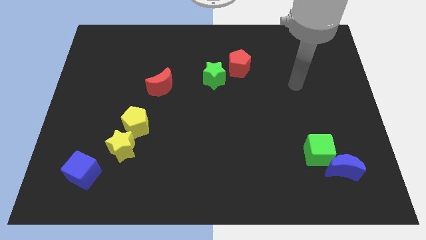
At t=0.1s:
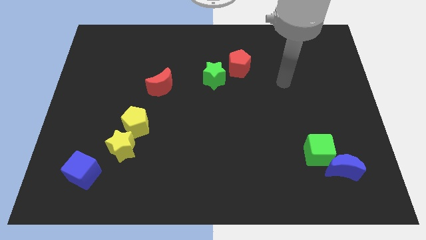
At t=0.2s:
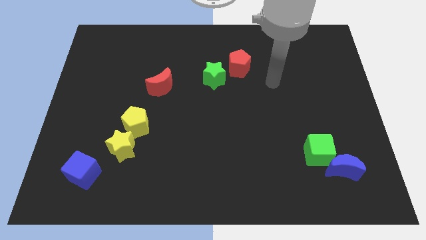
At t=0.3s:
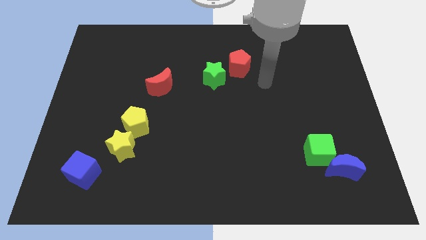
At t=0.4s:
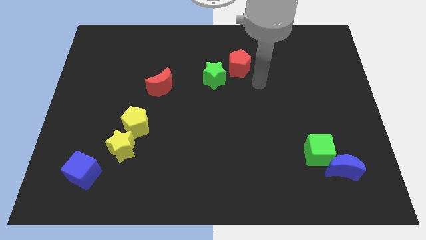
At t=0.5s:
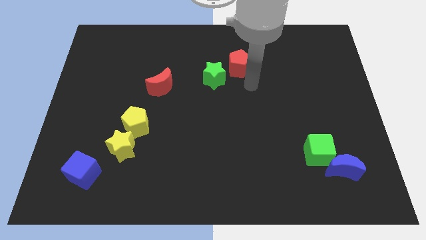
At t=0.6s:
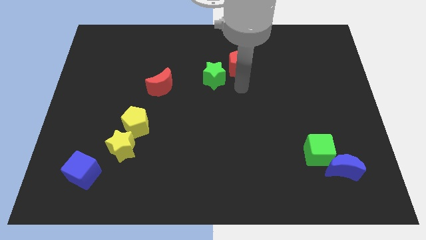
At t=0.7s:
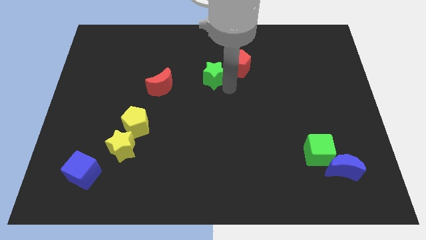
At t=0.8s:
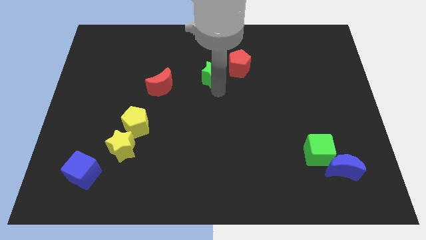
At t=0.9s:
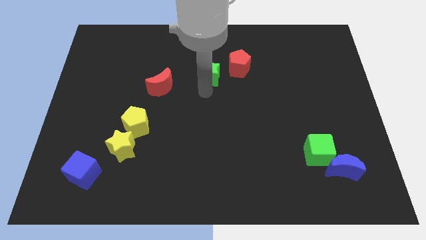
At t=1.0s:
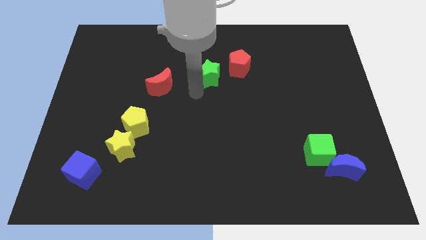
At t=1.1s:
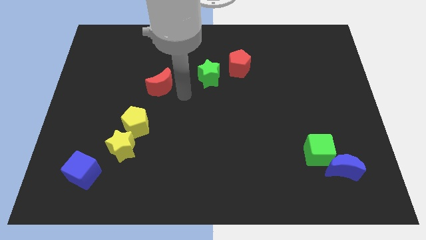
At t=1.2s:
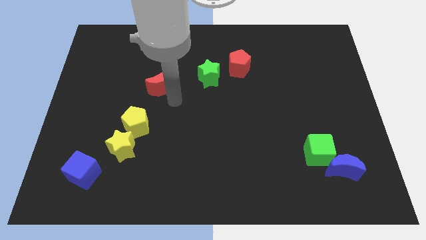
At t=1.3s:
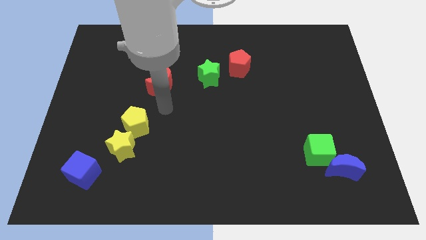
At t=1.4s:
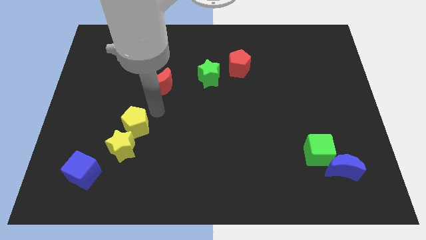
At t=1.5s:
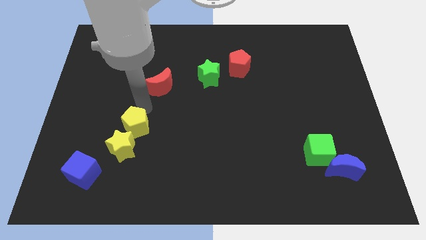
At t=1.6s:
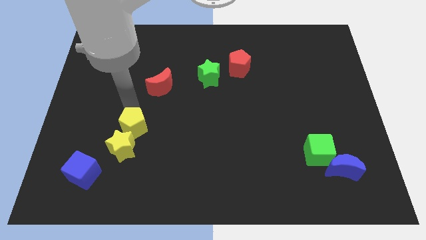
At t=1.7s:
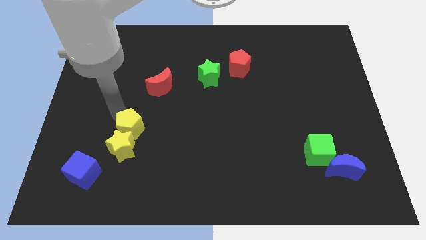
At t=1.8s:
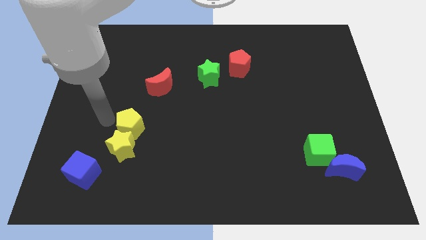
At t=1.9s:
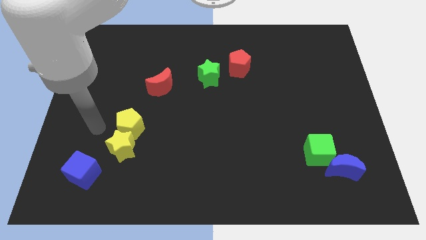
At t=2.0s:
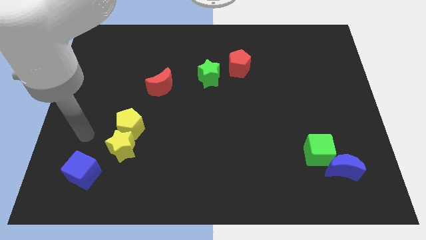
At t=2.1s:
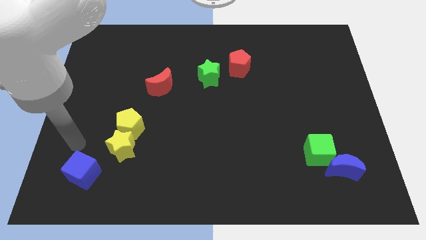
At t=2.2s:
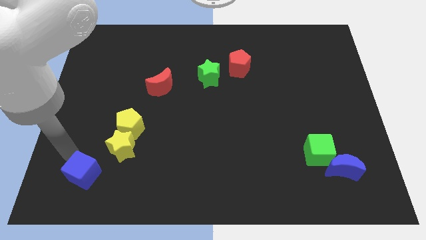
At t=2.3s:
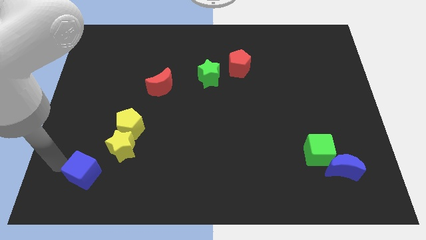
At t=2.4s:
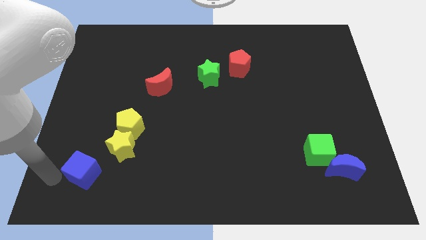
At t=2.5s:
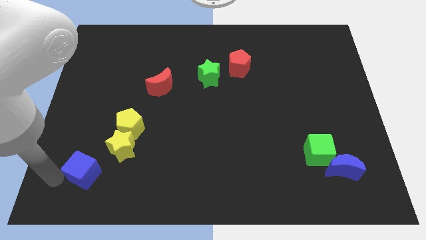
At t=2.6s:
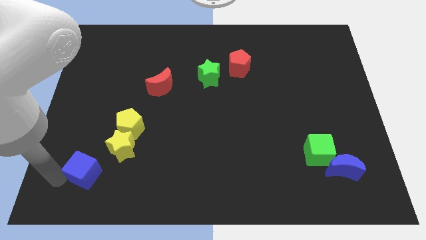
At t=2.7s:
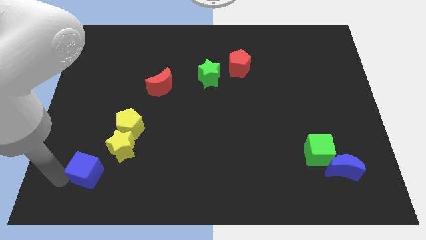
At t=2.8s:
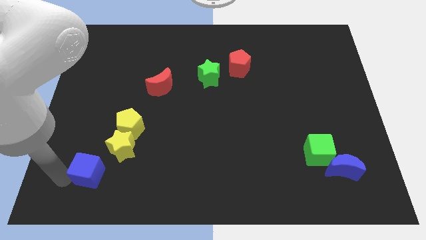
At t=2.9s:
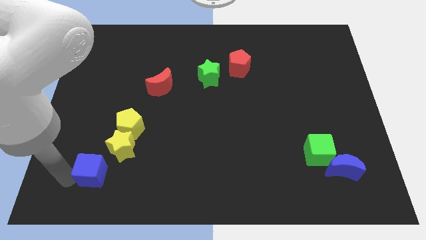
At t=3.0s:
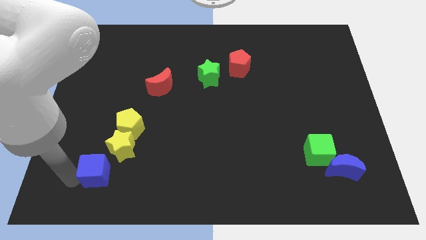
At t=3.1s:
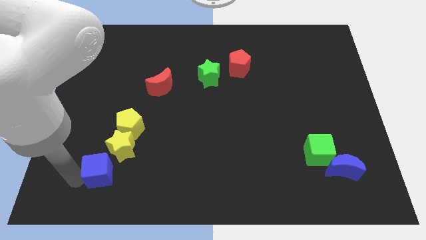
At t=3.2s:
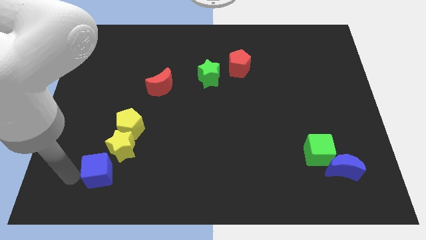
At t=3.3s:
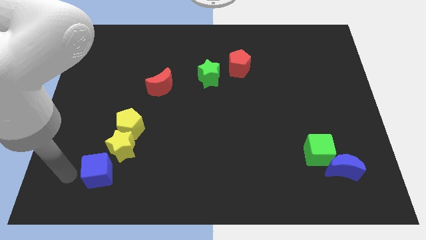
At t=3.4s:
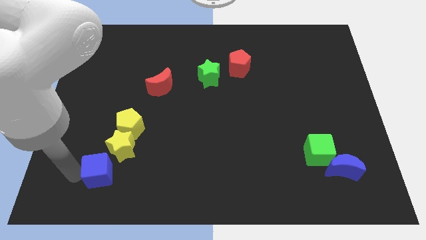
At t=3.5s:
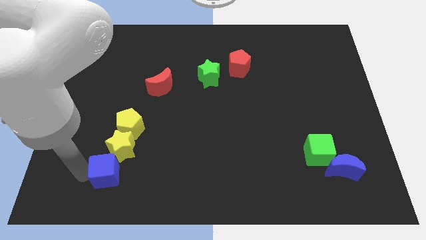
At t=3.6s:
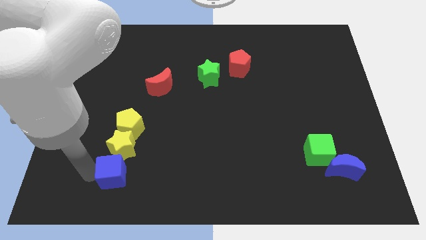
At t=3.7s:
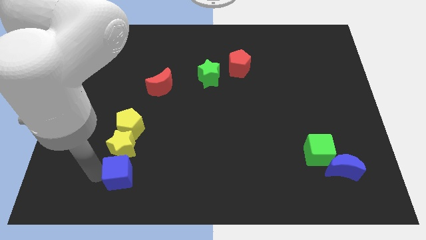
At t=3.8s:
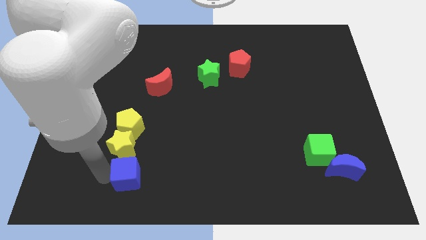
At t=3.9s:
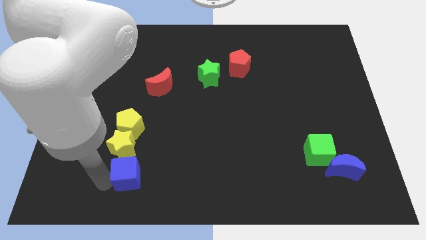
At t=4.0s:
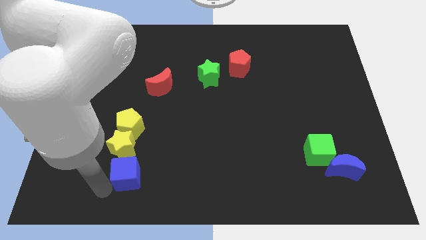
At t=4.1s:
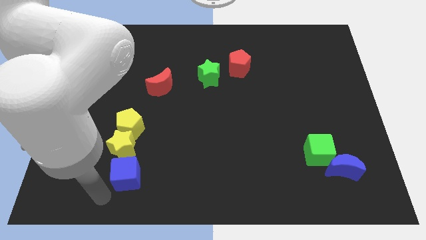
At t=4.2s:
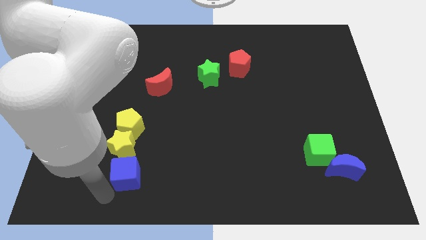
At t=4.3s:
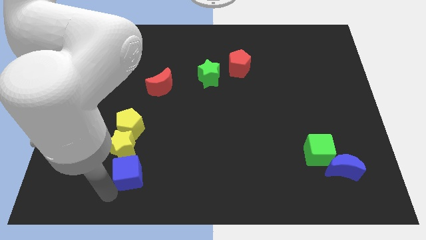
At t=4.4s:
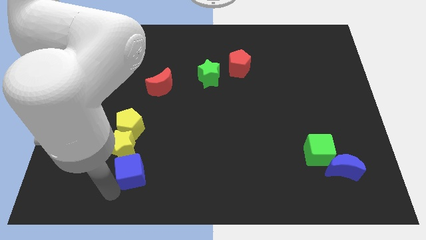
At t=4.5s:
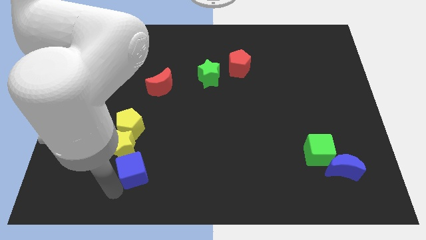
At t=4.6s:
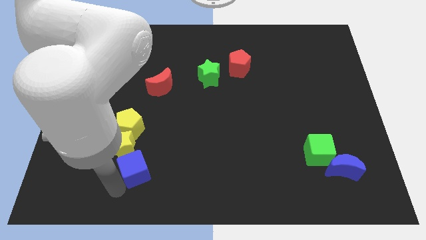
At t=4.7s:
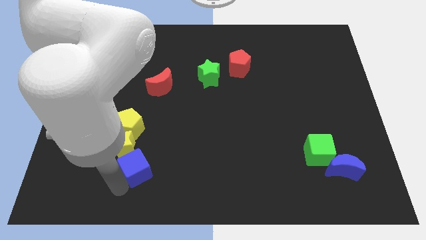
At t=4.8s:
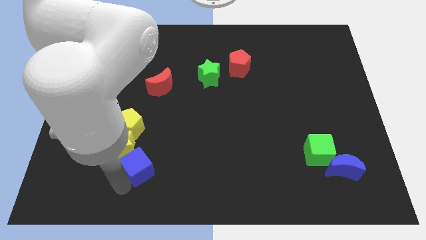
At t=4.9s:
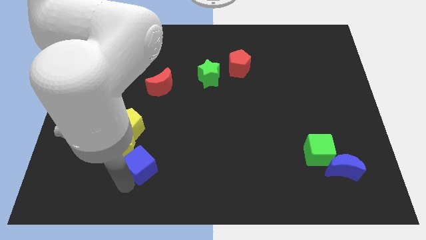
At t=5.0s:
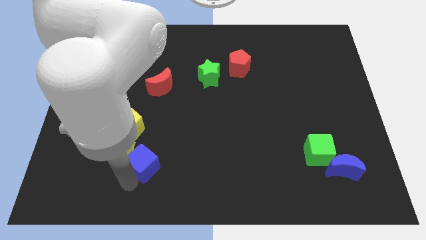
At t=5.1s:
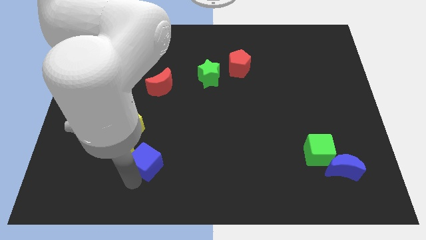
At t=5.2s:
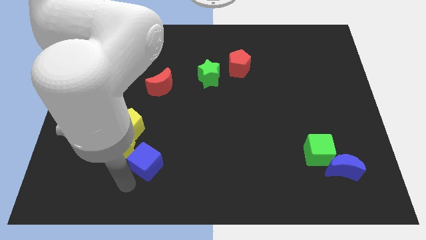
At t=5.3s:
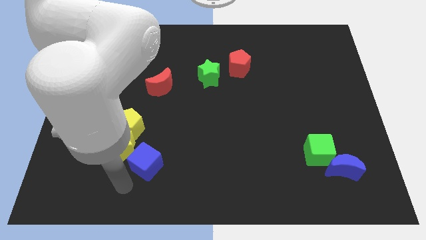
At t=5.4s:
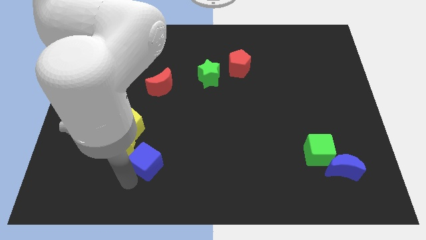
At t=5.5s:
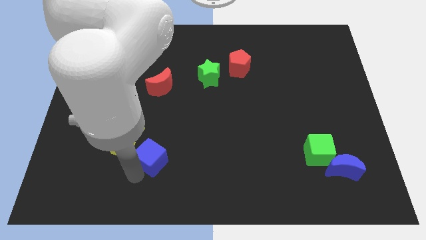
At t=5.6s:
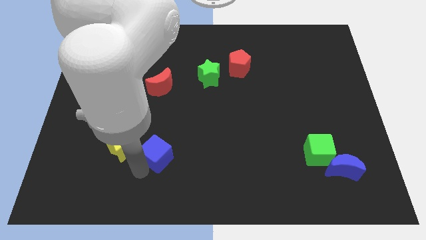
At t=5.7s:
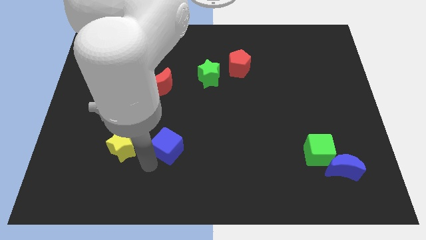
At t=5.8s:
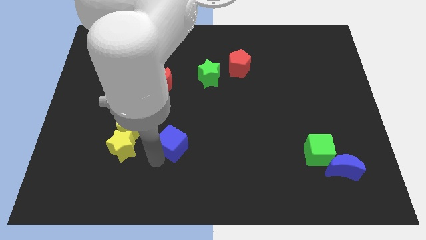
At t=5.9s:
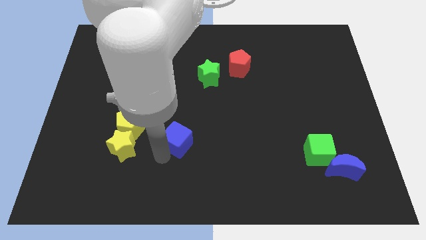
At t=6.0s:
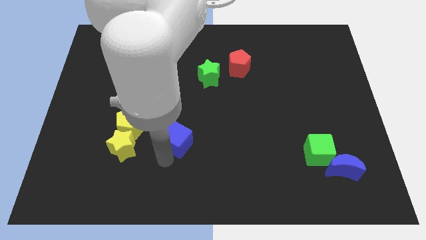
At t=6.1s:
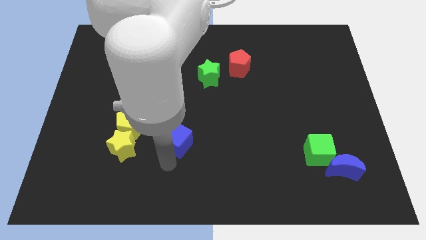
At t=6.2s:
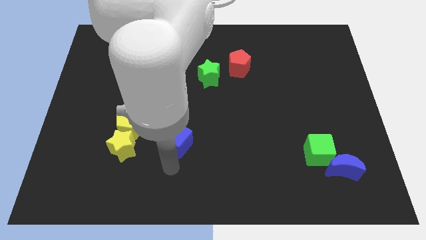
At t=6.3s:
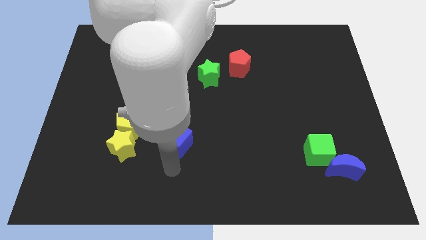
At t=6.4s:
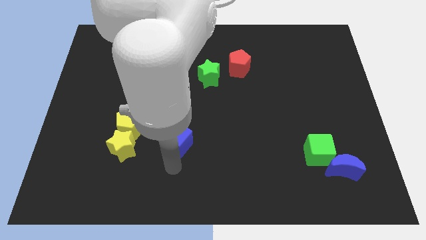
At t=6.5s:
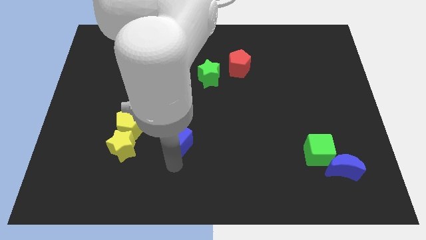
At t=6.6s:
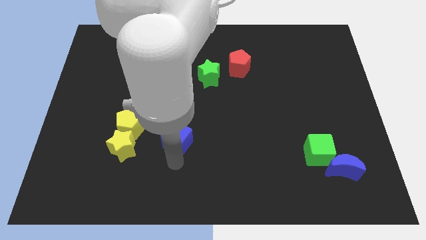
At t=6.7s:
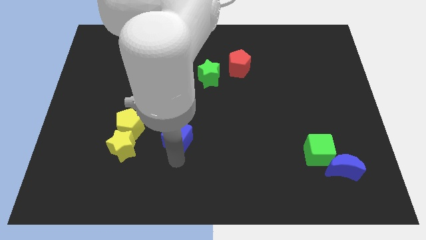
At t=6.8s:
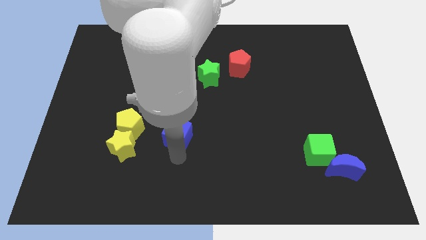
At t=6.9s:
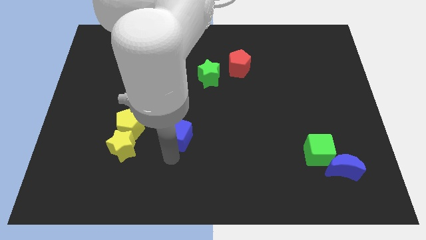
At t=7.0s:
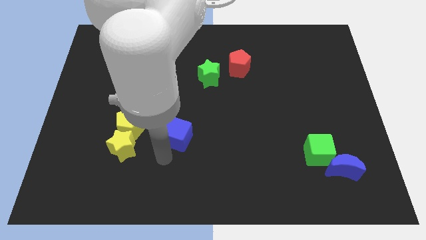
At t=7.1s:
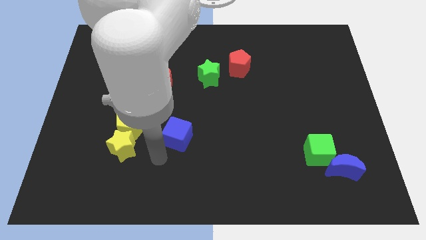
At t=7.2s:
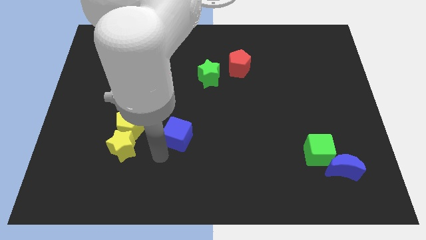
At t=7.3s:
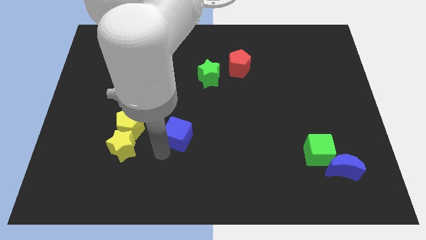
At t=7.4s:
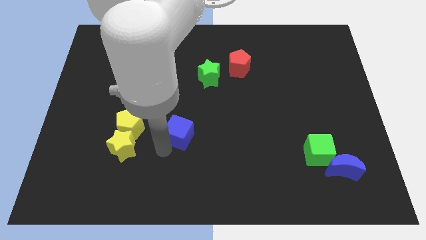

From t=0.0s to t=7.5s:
push the blue cube to the center

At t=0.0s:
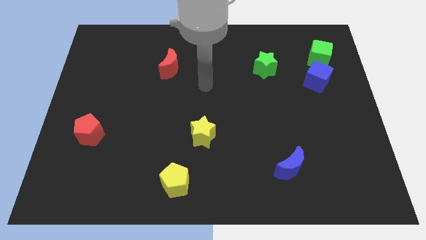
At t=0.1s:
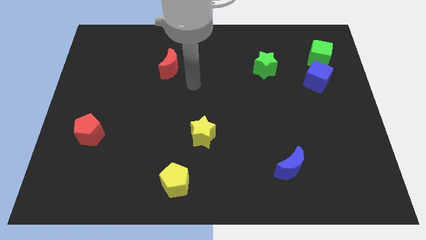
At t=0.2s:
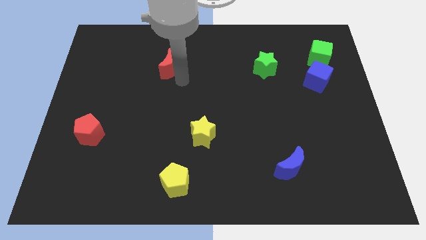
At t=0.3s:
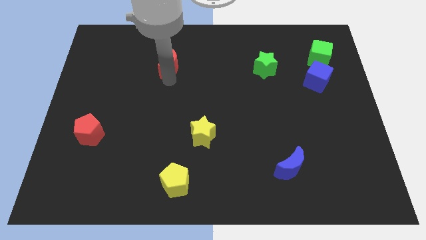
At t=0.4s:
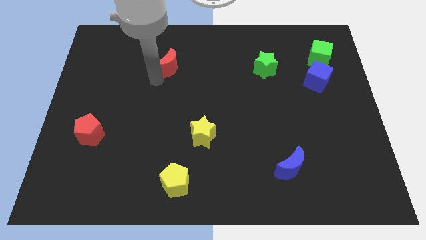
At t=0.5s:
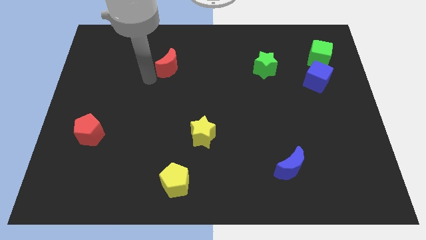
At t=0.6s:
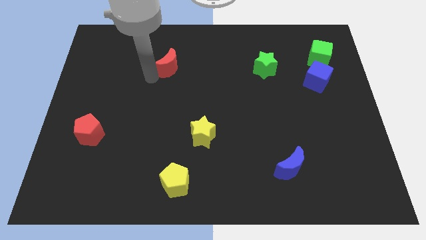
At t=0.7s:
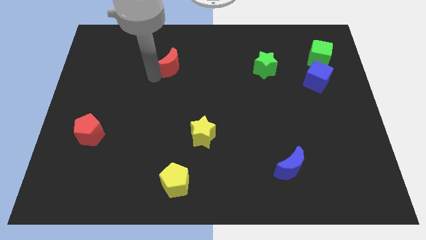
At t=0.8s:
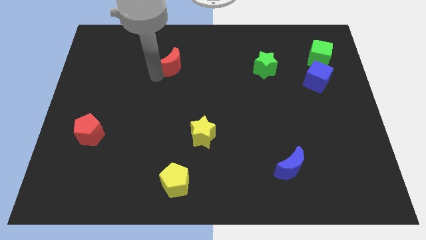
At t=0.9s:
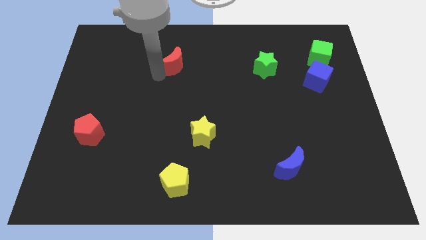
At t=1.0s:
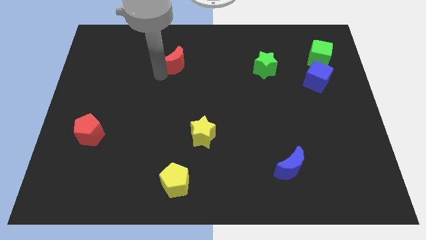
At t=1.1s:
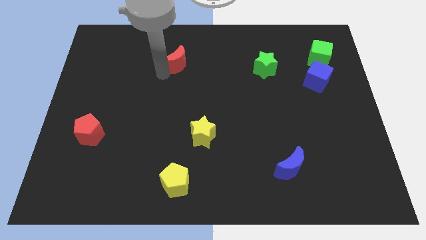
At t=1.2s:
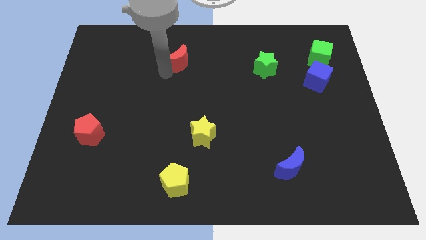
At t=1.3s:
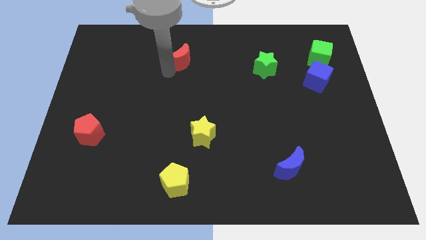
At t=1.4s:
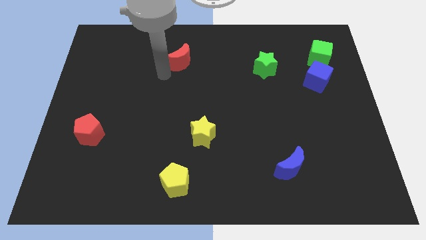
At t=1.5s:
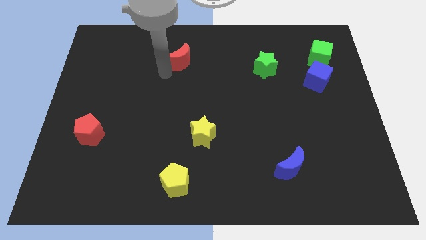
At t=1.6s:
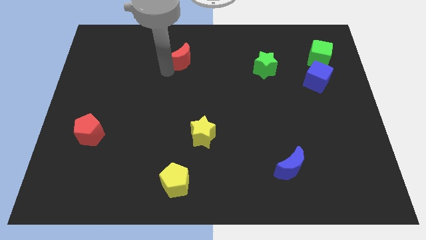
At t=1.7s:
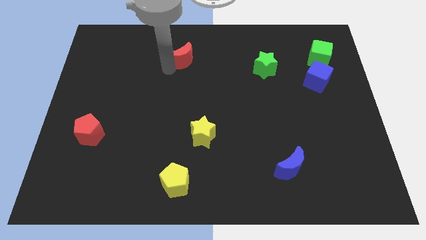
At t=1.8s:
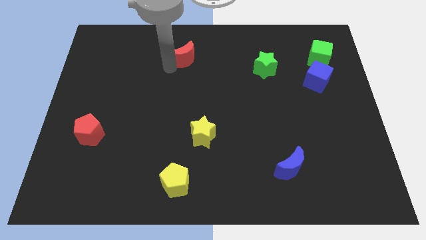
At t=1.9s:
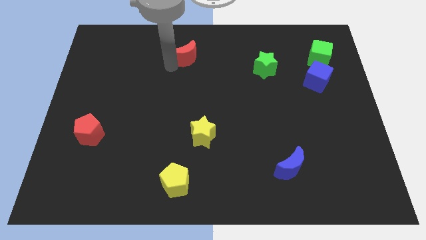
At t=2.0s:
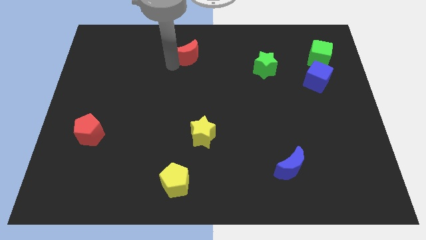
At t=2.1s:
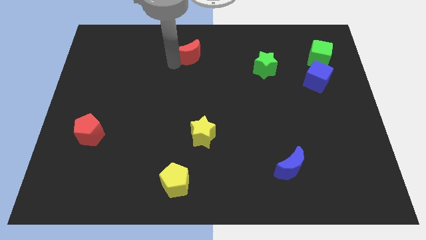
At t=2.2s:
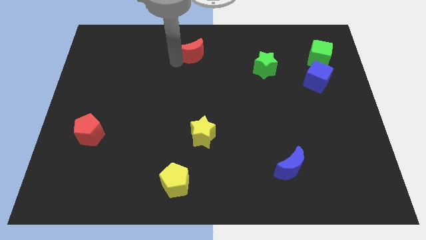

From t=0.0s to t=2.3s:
slide the red moon to the towards your base
